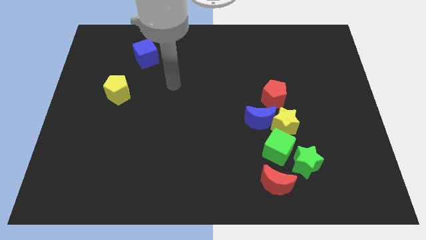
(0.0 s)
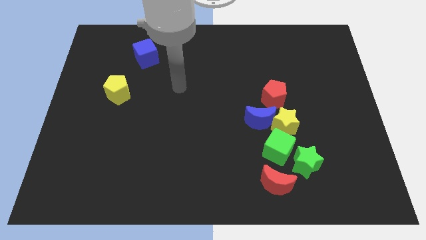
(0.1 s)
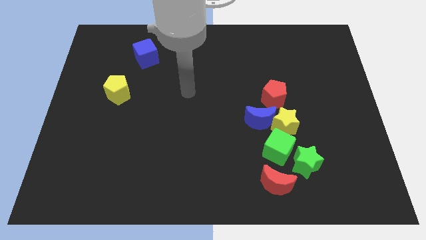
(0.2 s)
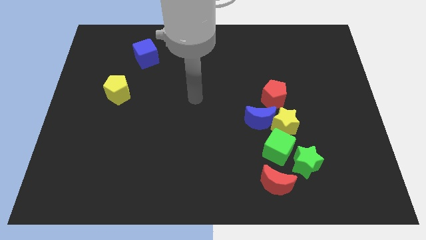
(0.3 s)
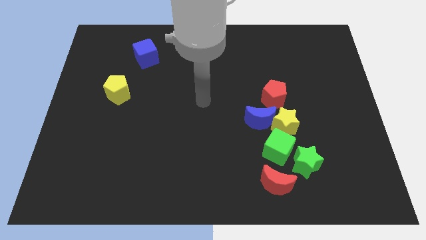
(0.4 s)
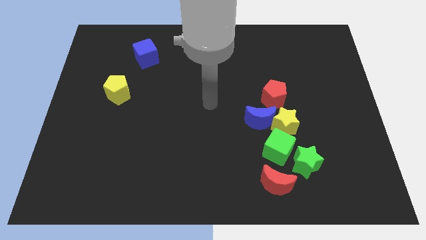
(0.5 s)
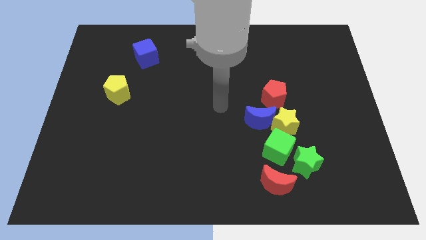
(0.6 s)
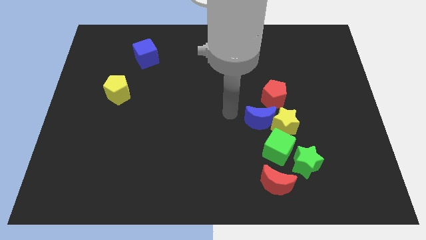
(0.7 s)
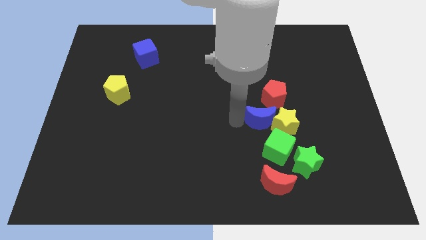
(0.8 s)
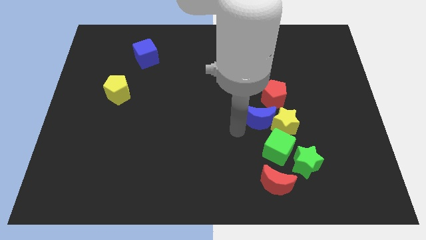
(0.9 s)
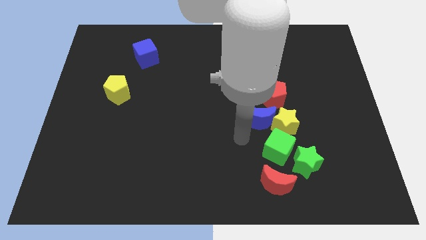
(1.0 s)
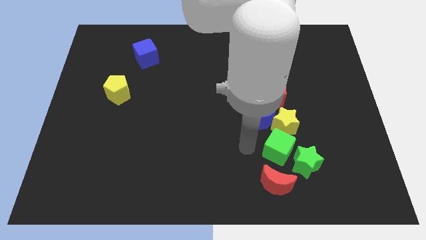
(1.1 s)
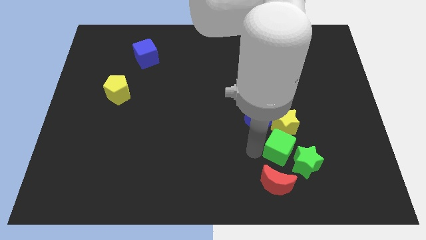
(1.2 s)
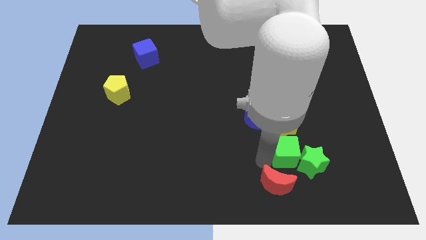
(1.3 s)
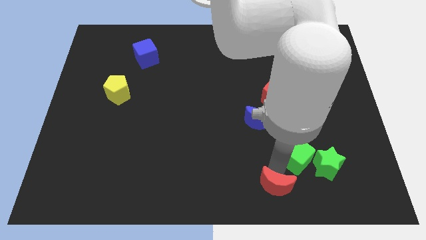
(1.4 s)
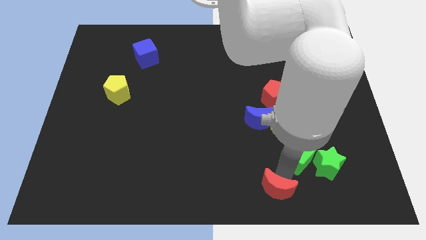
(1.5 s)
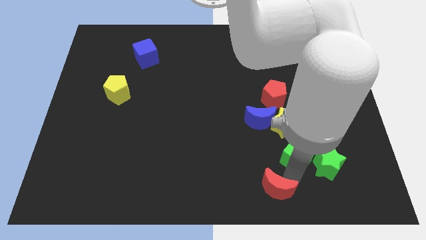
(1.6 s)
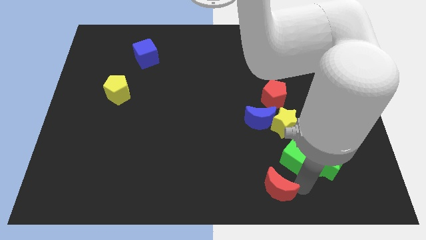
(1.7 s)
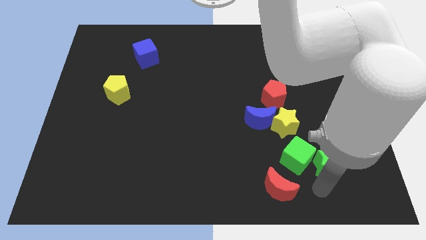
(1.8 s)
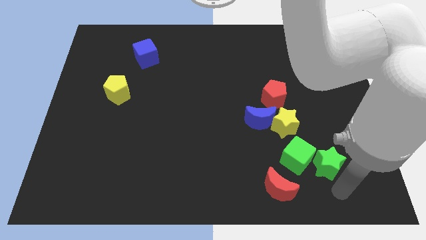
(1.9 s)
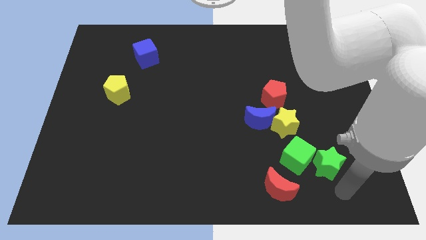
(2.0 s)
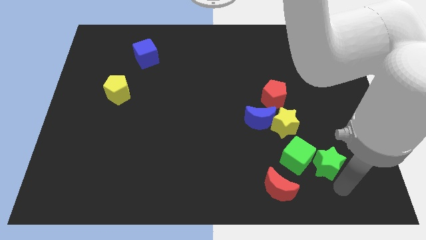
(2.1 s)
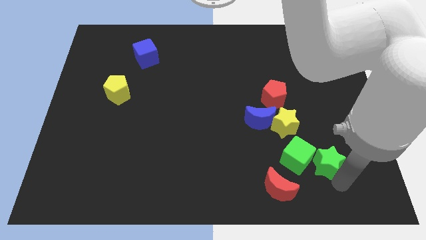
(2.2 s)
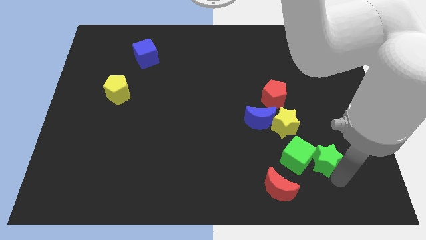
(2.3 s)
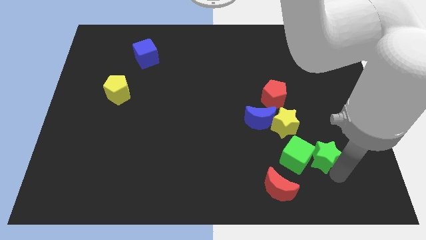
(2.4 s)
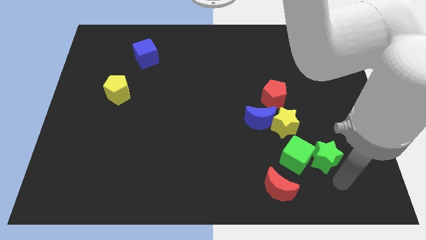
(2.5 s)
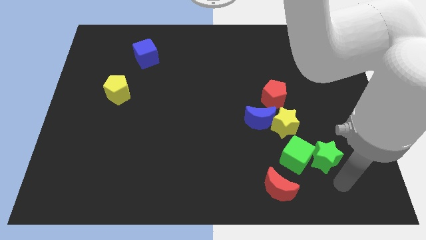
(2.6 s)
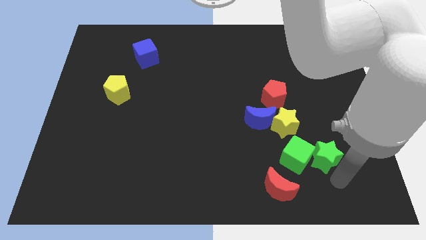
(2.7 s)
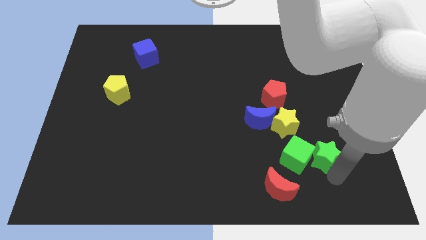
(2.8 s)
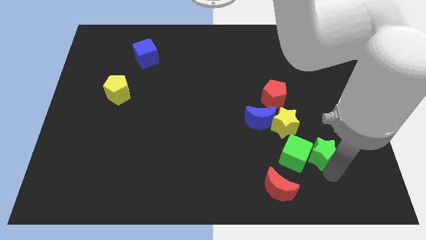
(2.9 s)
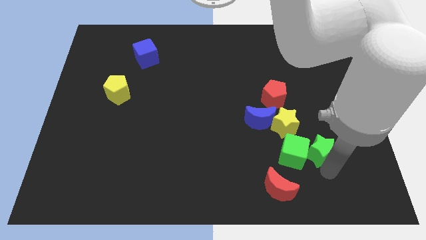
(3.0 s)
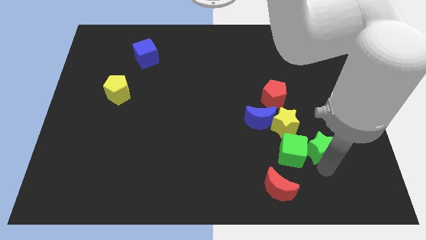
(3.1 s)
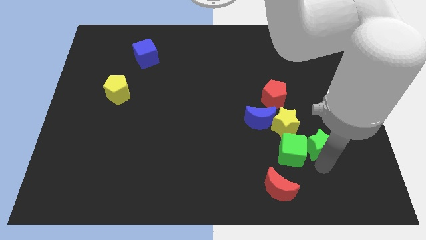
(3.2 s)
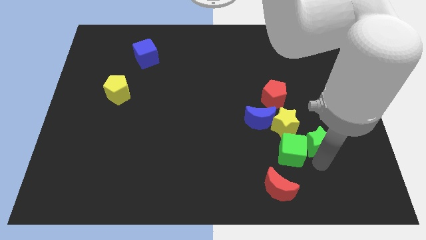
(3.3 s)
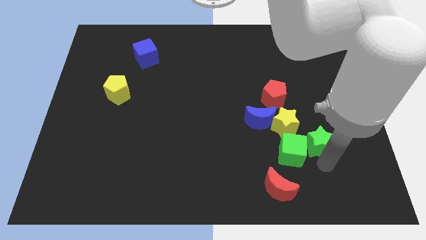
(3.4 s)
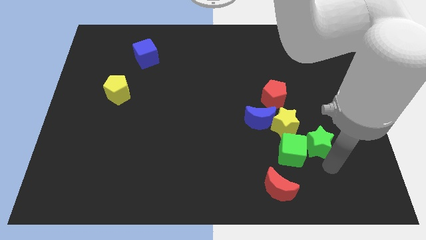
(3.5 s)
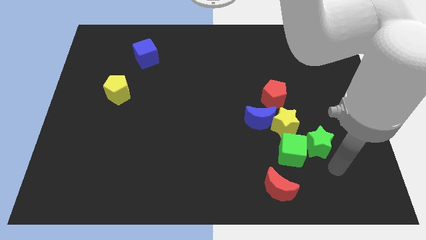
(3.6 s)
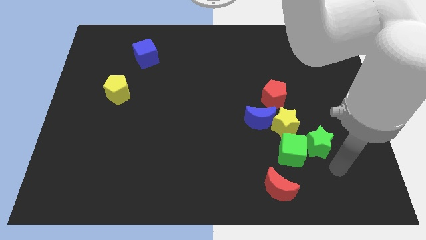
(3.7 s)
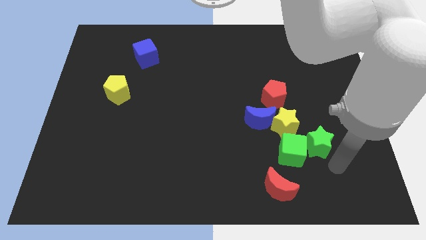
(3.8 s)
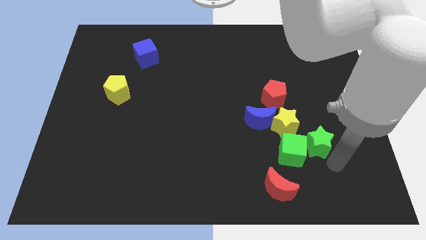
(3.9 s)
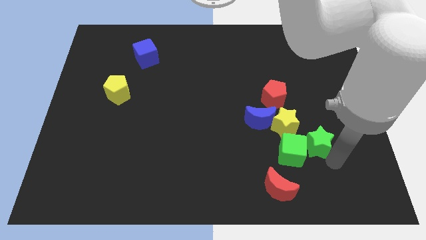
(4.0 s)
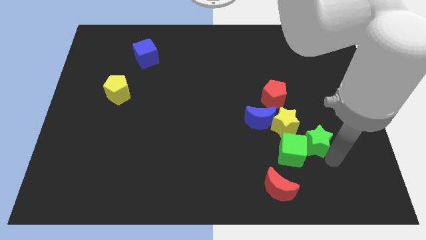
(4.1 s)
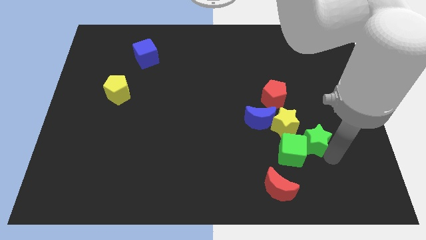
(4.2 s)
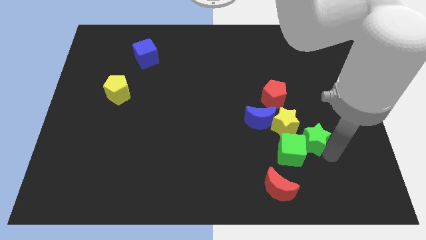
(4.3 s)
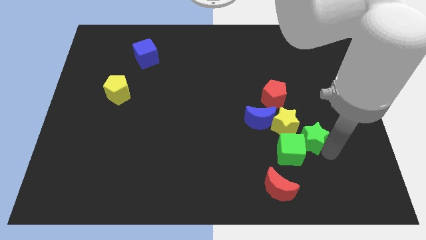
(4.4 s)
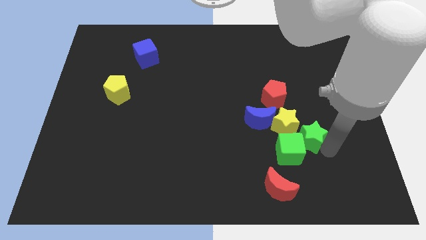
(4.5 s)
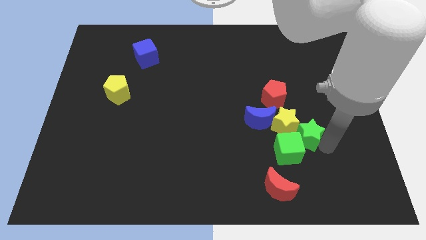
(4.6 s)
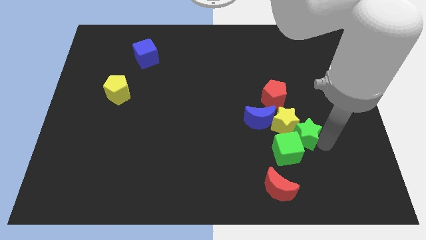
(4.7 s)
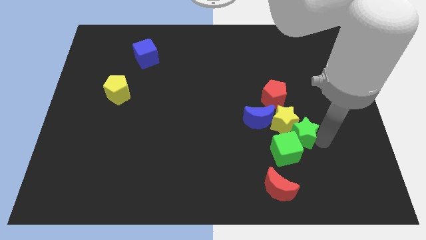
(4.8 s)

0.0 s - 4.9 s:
move the green star a bit upwards

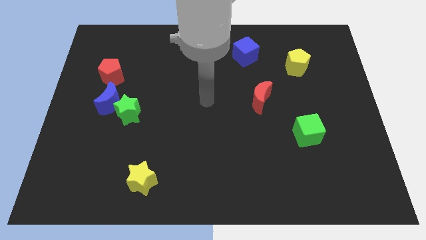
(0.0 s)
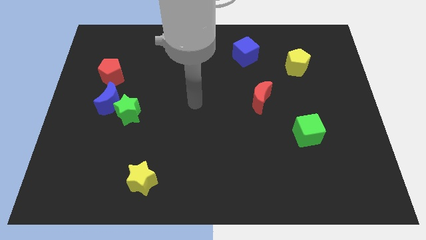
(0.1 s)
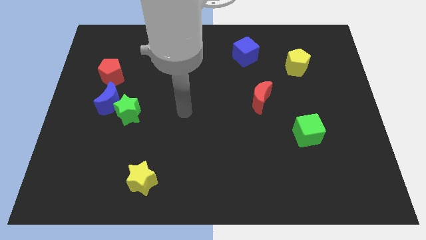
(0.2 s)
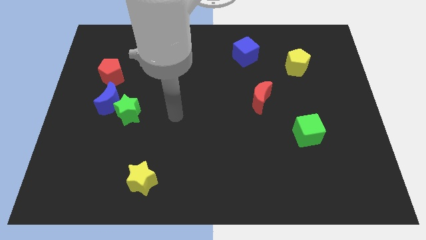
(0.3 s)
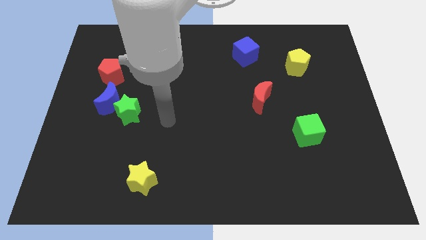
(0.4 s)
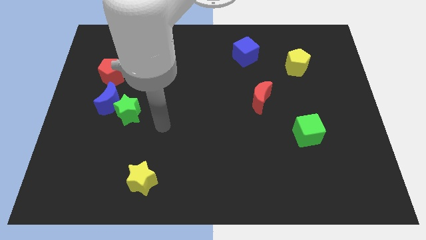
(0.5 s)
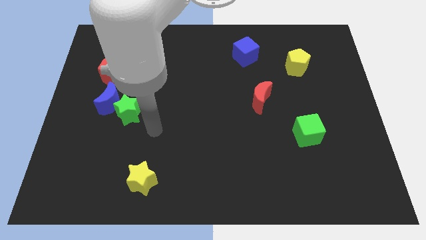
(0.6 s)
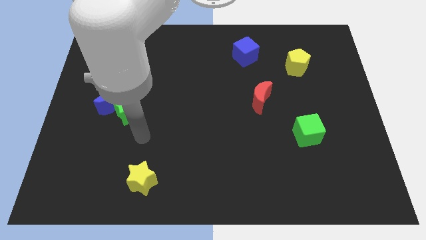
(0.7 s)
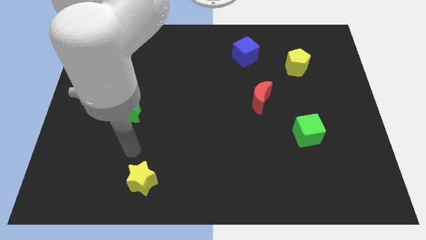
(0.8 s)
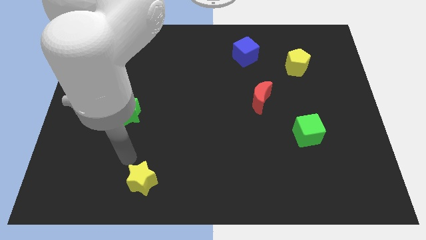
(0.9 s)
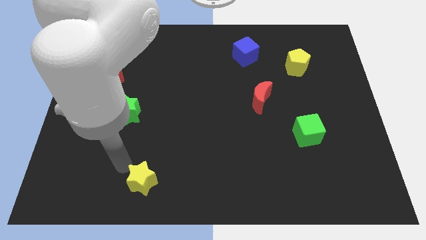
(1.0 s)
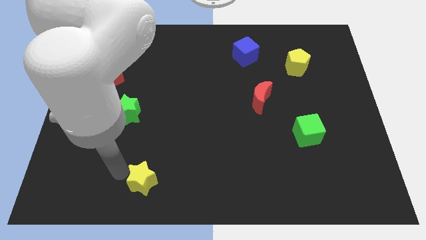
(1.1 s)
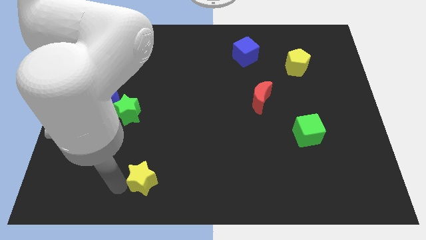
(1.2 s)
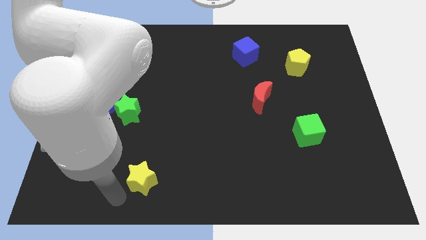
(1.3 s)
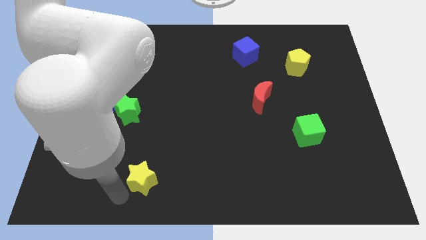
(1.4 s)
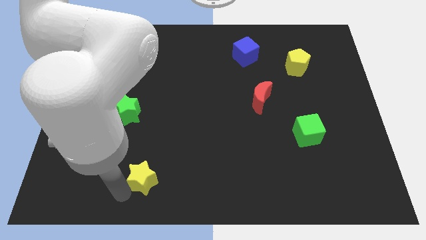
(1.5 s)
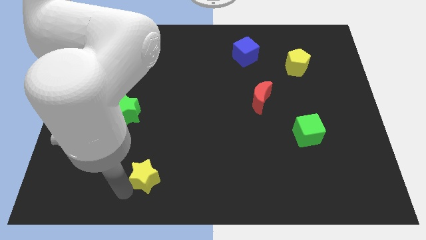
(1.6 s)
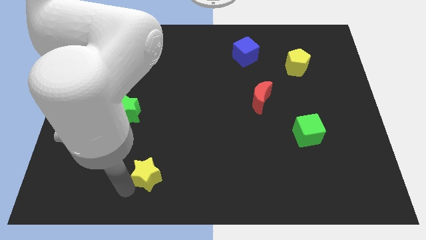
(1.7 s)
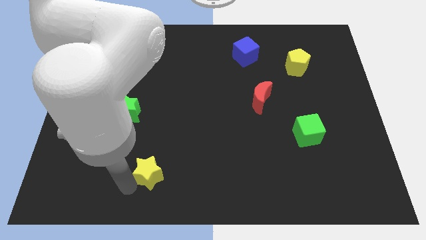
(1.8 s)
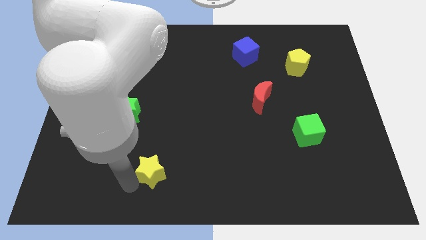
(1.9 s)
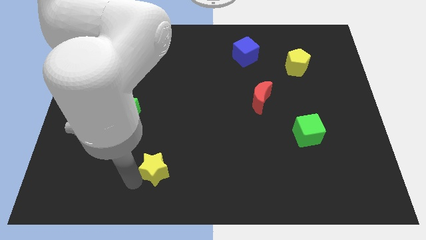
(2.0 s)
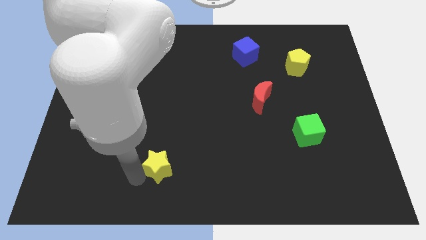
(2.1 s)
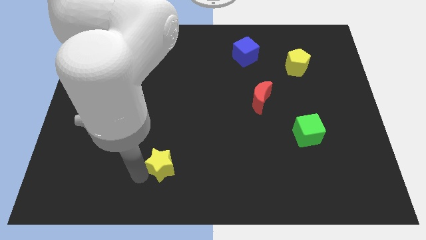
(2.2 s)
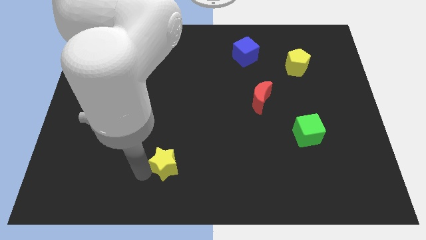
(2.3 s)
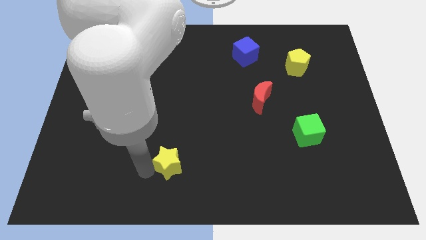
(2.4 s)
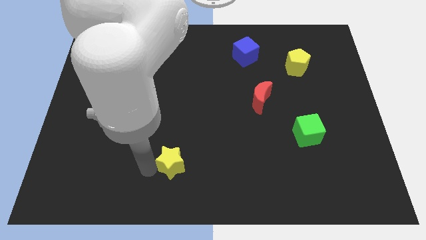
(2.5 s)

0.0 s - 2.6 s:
move the yellow star slightly up and then right

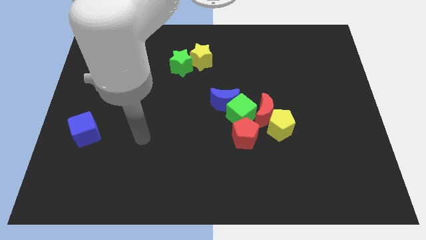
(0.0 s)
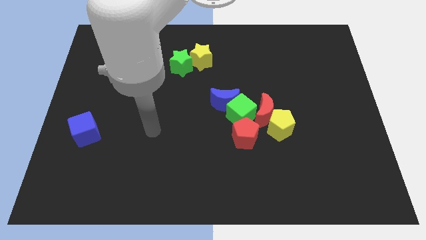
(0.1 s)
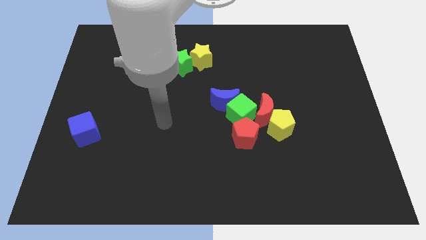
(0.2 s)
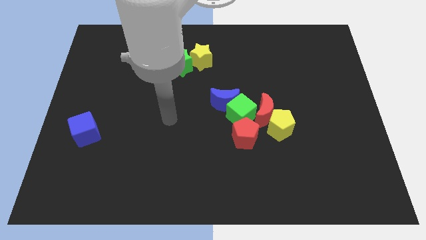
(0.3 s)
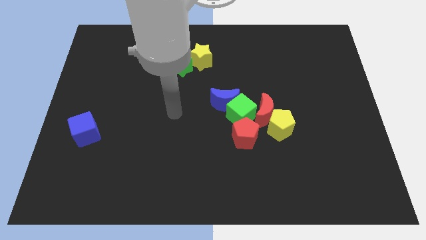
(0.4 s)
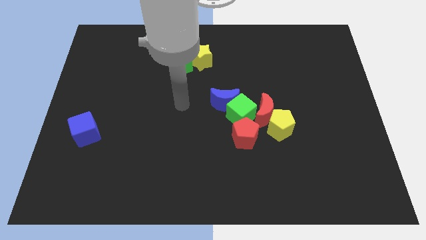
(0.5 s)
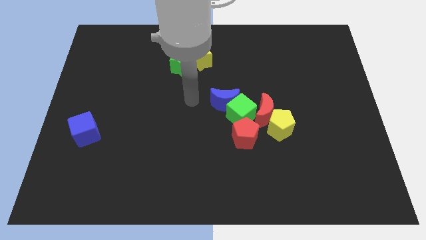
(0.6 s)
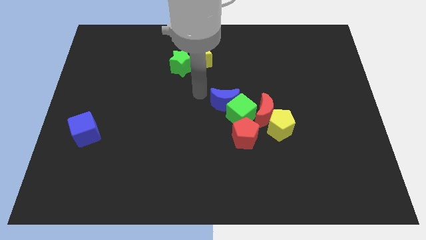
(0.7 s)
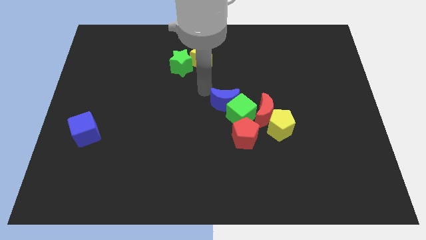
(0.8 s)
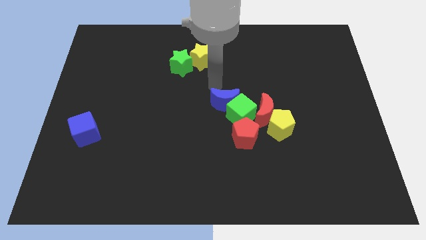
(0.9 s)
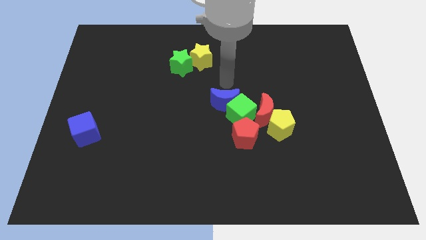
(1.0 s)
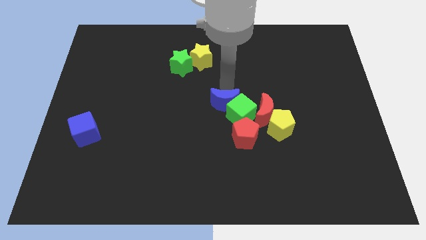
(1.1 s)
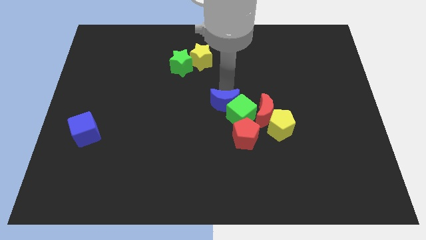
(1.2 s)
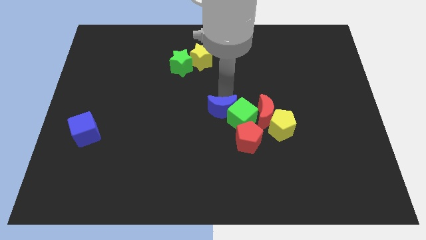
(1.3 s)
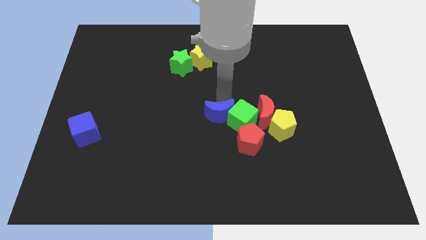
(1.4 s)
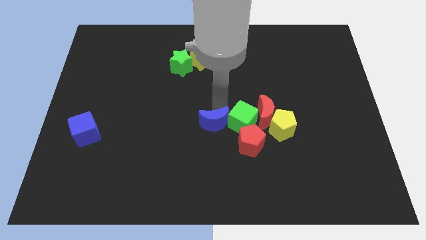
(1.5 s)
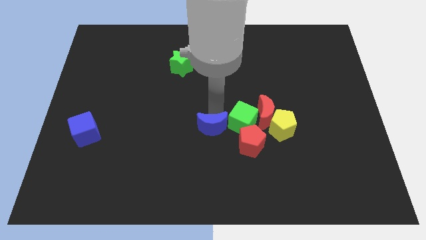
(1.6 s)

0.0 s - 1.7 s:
push the blue moon down slightly
